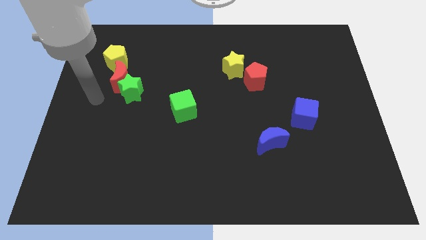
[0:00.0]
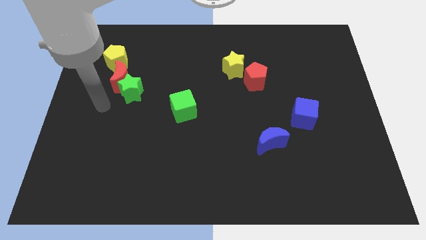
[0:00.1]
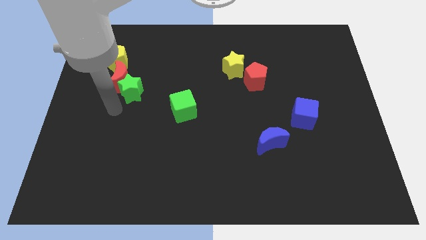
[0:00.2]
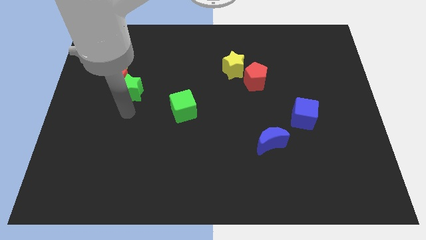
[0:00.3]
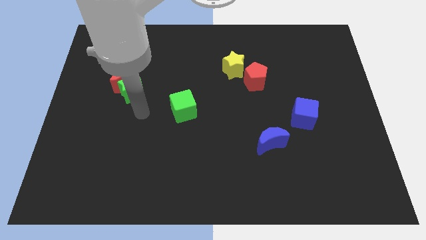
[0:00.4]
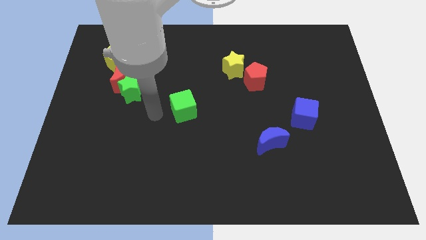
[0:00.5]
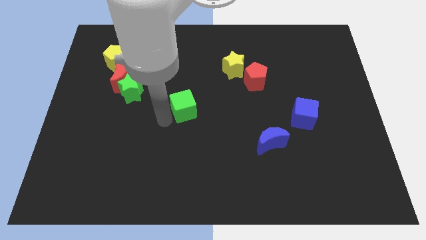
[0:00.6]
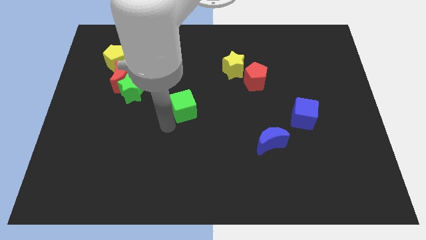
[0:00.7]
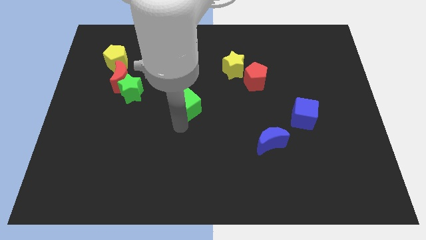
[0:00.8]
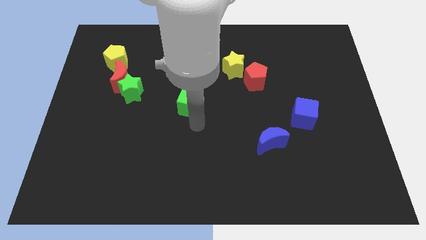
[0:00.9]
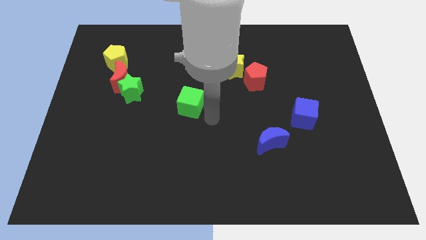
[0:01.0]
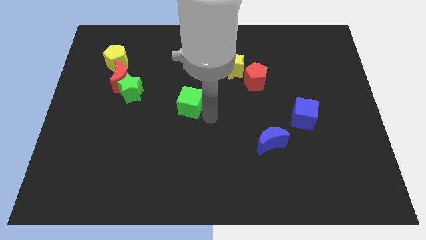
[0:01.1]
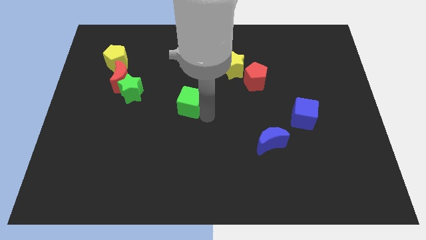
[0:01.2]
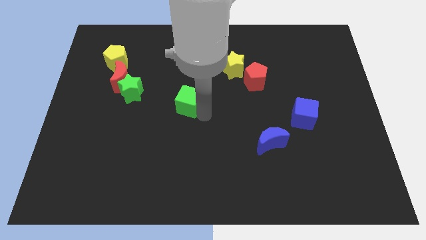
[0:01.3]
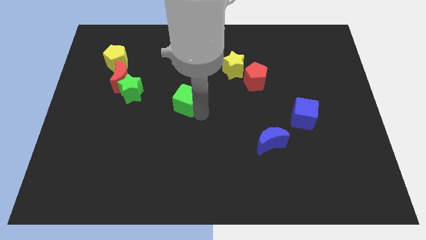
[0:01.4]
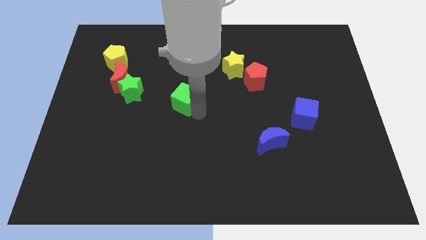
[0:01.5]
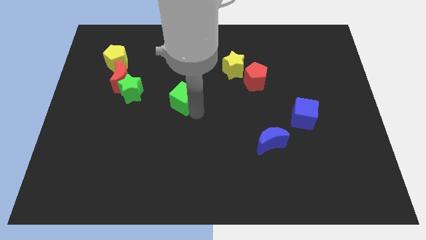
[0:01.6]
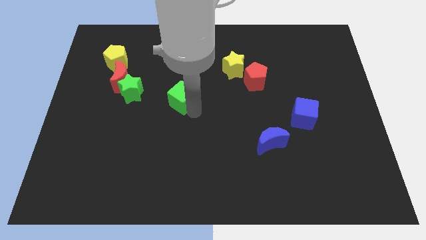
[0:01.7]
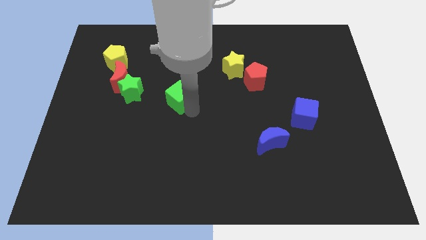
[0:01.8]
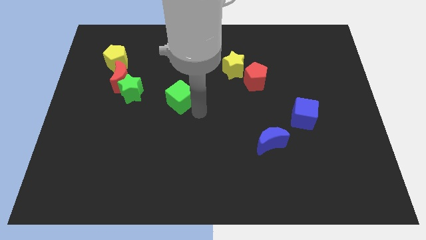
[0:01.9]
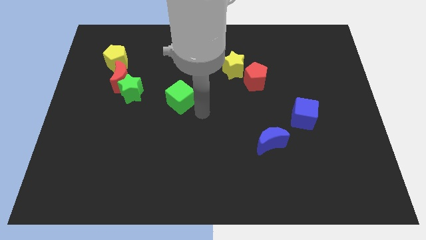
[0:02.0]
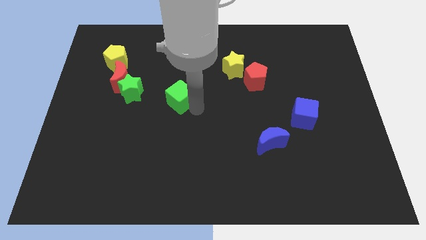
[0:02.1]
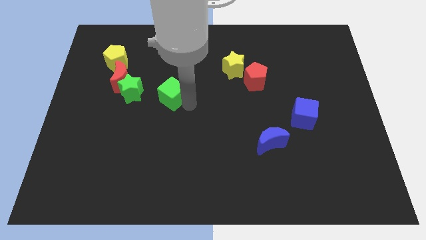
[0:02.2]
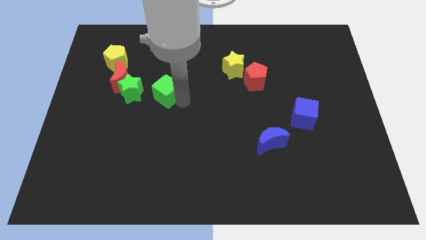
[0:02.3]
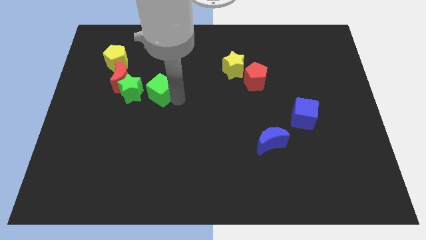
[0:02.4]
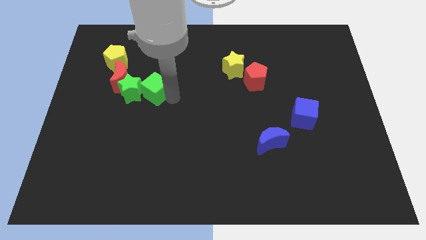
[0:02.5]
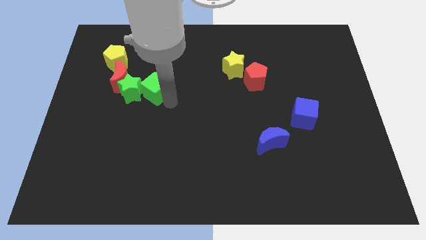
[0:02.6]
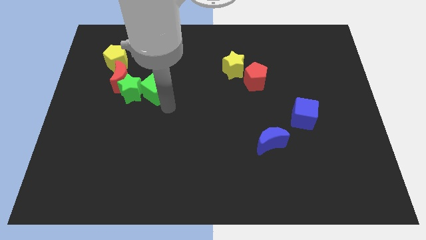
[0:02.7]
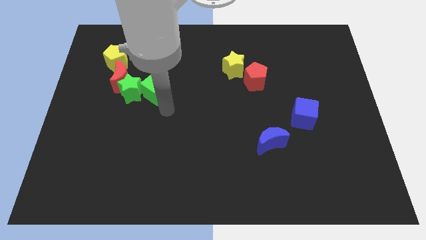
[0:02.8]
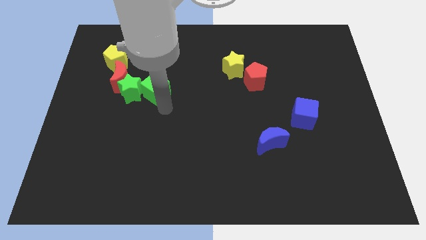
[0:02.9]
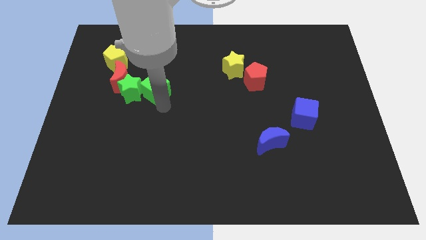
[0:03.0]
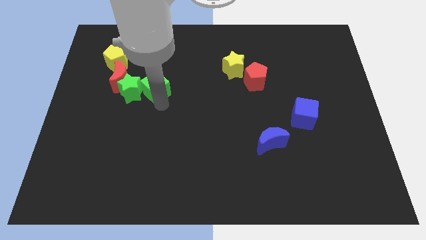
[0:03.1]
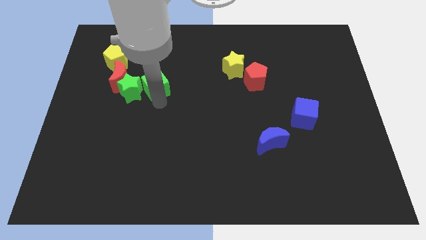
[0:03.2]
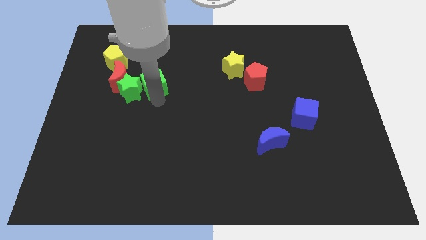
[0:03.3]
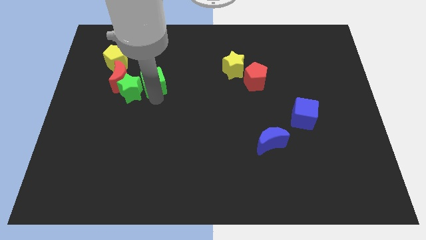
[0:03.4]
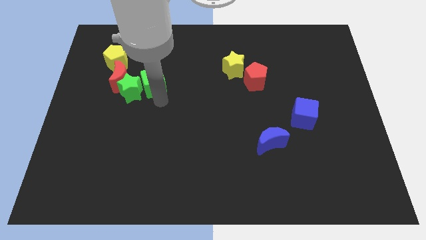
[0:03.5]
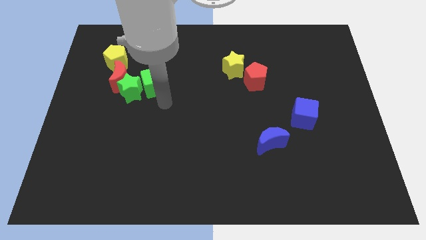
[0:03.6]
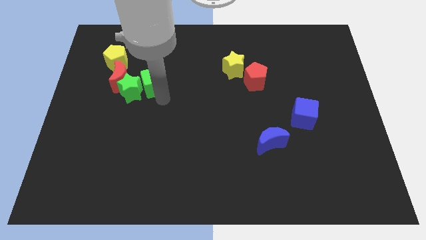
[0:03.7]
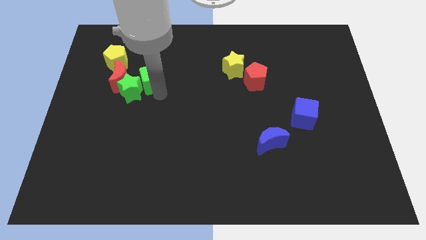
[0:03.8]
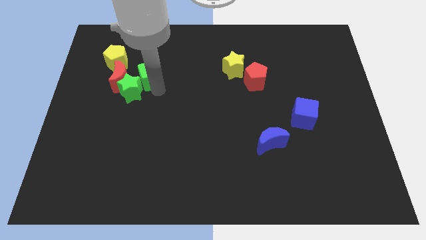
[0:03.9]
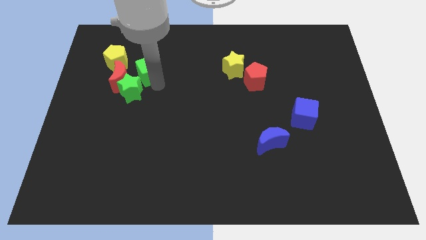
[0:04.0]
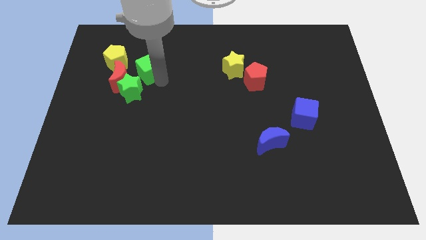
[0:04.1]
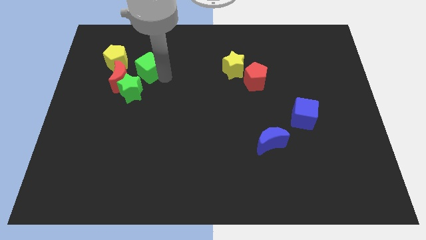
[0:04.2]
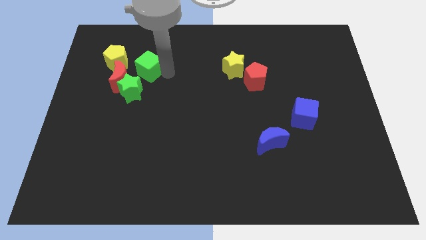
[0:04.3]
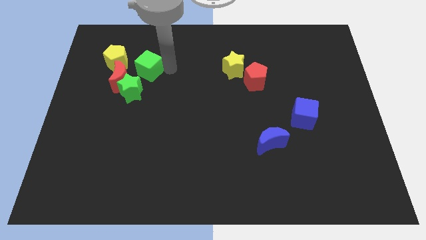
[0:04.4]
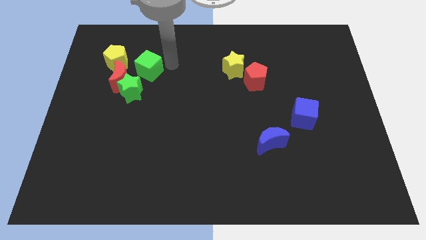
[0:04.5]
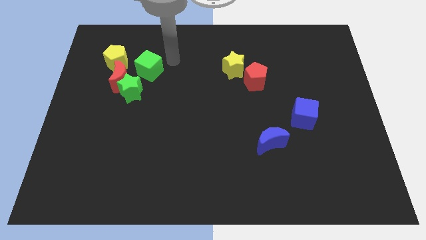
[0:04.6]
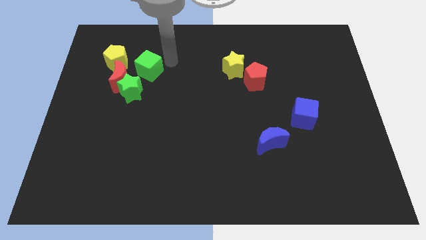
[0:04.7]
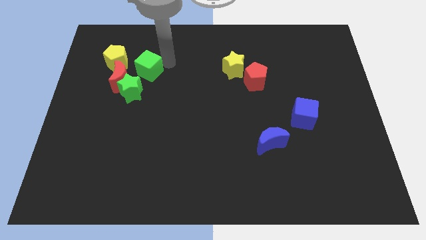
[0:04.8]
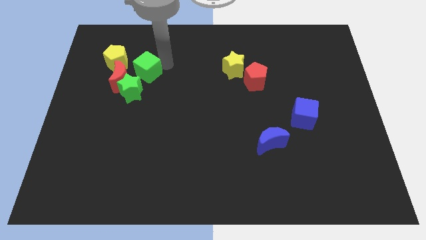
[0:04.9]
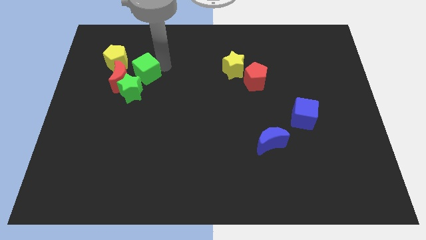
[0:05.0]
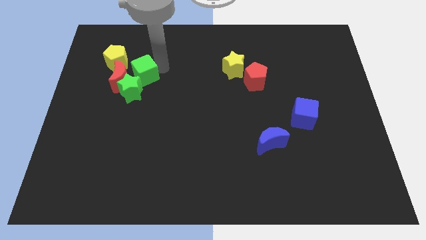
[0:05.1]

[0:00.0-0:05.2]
move the green cube close to the red moon
